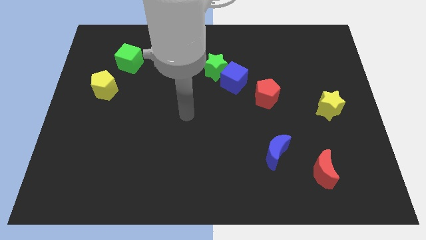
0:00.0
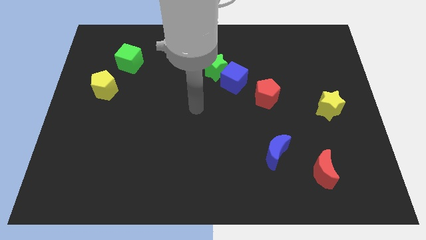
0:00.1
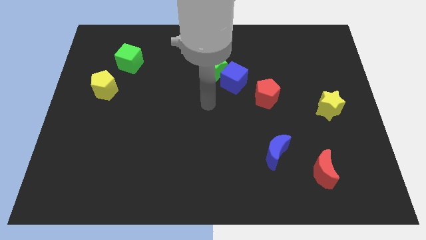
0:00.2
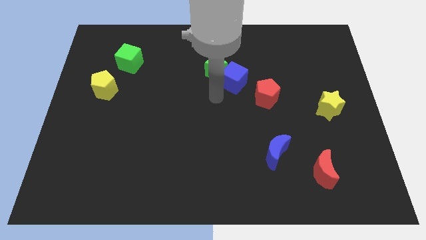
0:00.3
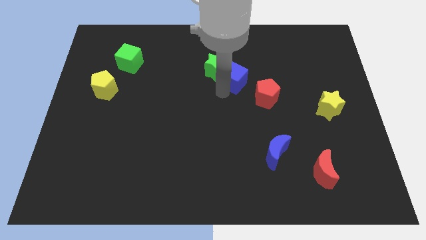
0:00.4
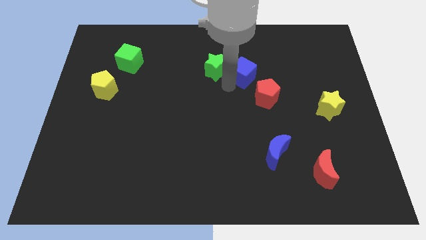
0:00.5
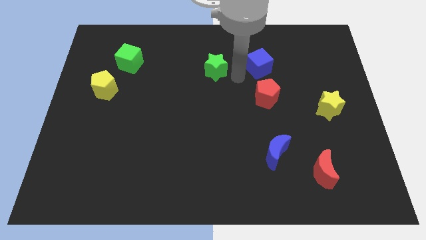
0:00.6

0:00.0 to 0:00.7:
pull the green star apart from the blue cube

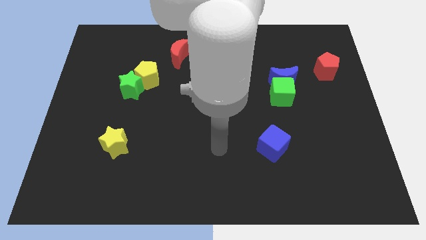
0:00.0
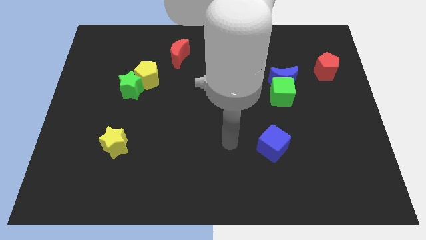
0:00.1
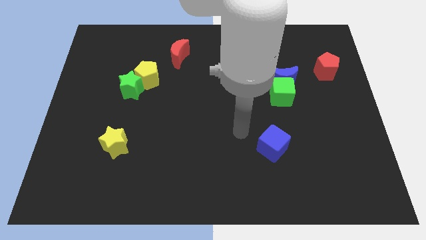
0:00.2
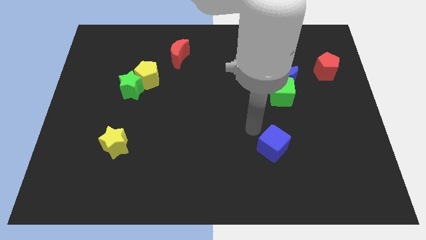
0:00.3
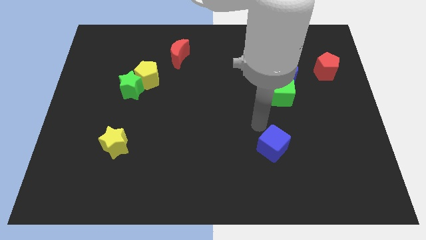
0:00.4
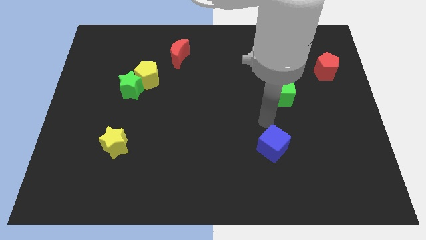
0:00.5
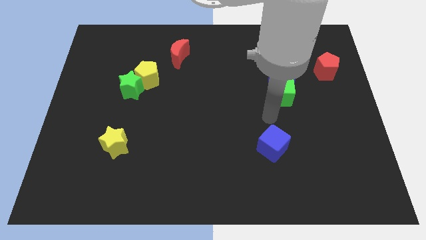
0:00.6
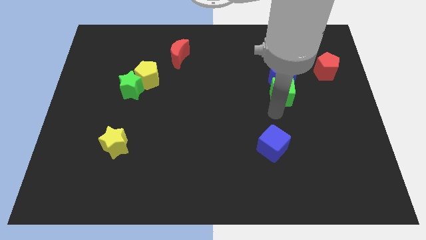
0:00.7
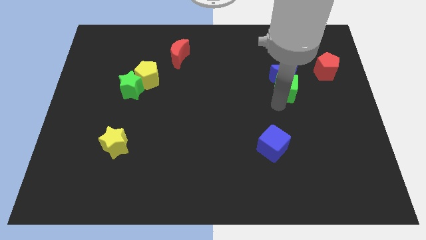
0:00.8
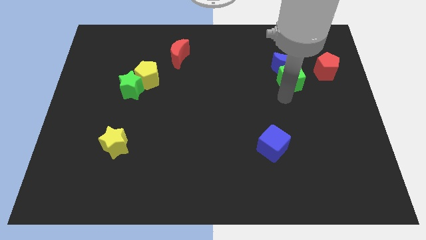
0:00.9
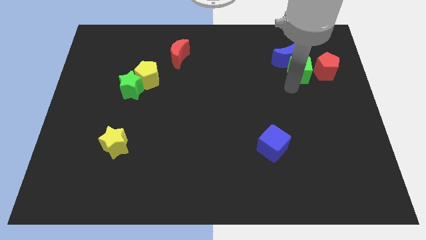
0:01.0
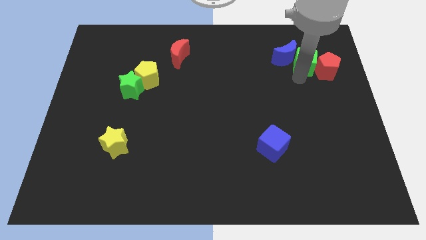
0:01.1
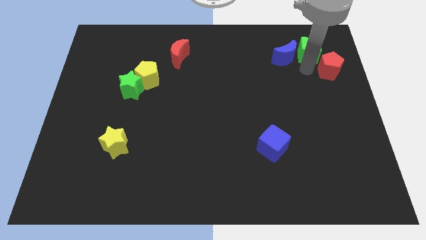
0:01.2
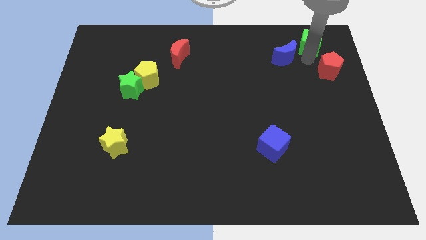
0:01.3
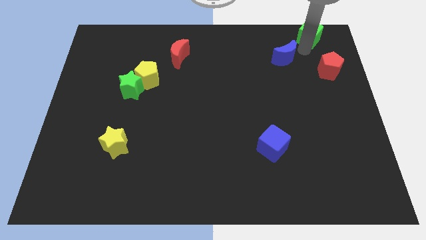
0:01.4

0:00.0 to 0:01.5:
separate the blue moon from the green cube

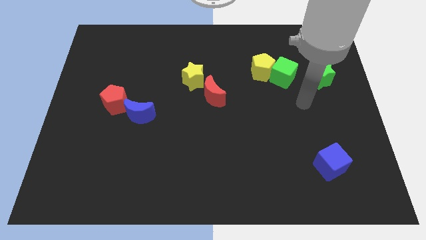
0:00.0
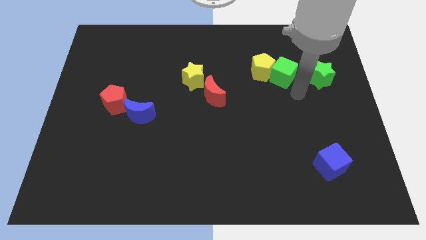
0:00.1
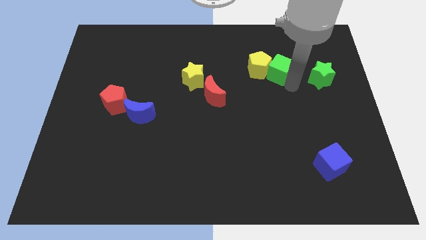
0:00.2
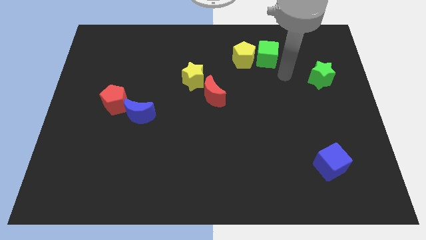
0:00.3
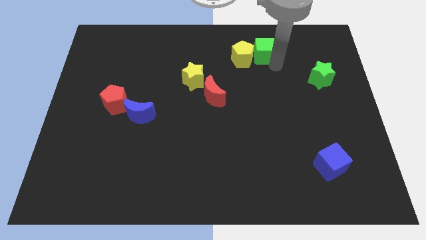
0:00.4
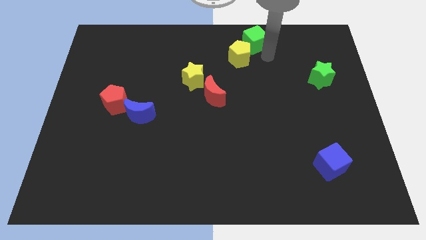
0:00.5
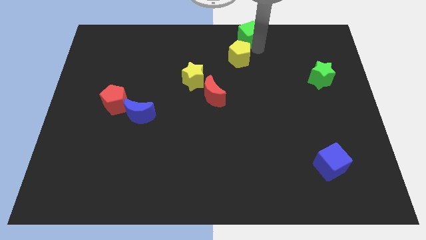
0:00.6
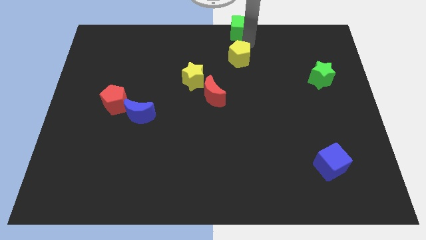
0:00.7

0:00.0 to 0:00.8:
pull the yellow pentagon apart from the green cube

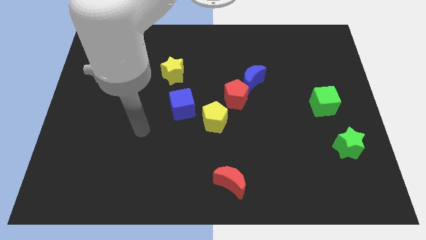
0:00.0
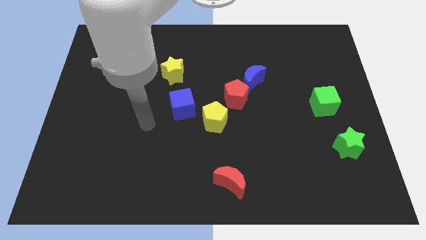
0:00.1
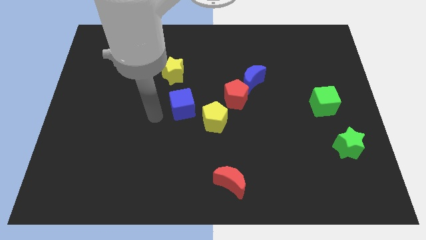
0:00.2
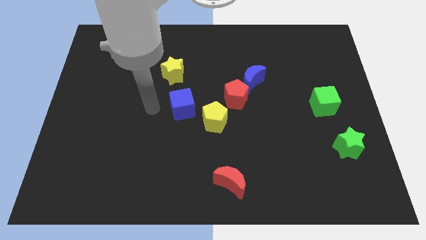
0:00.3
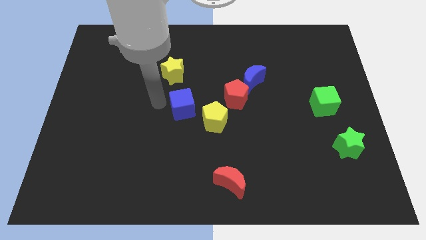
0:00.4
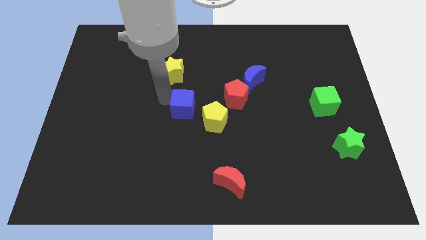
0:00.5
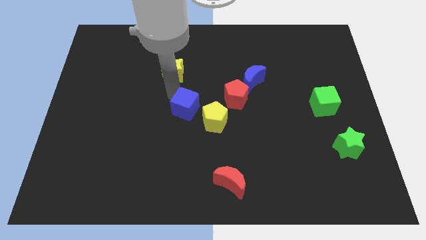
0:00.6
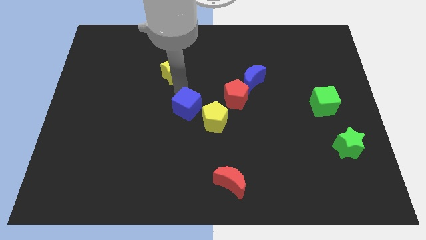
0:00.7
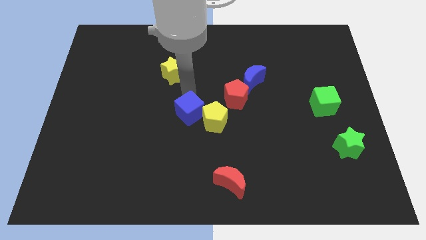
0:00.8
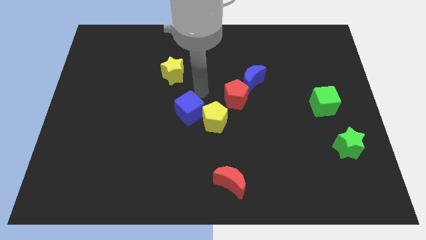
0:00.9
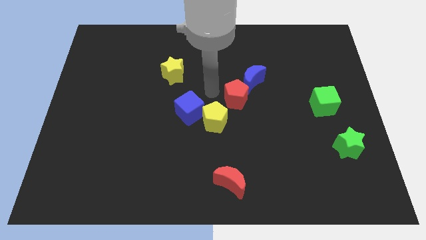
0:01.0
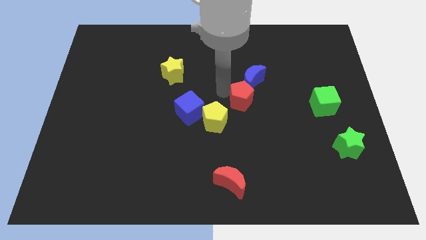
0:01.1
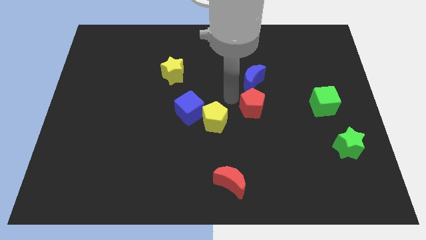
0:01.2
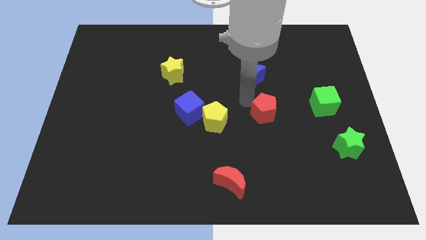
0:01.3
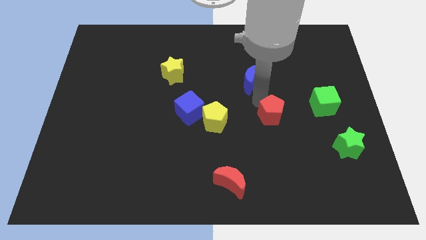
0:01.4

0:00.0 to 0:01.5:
separate the blue moon from the red pentagon

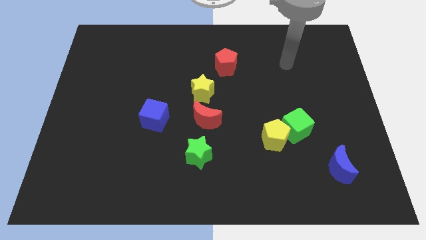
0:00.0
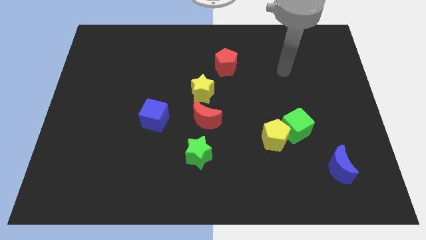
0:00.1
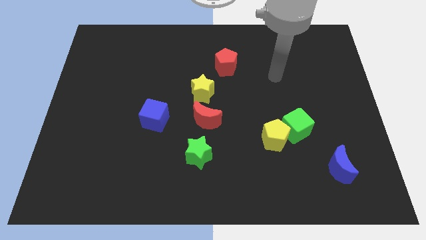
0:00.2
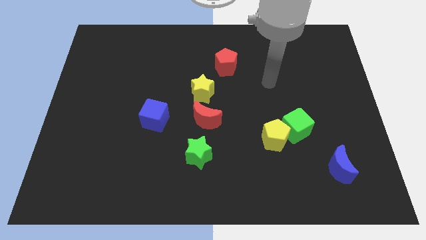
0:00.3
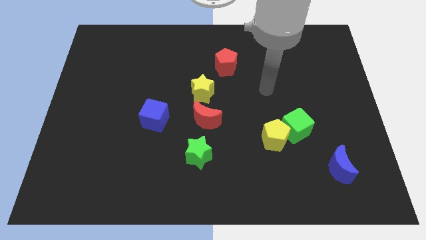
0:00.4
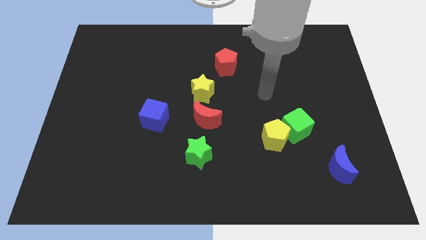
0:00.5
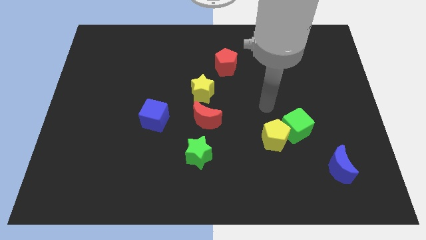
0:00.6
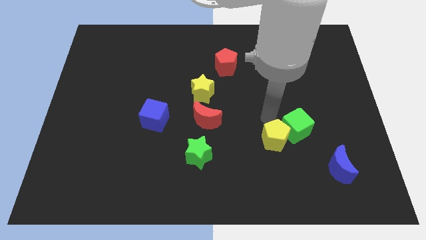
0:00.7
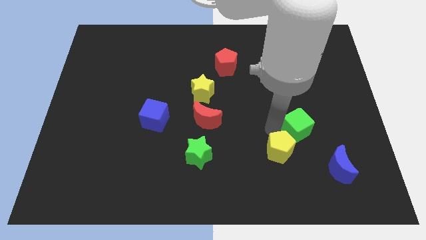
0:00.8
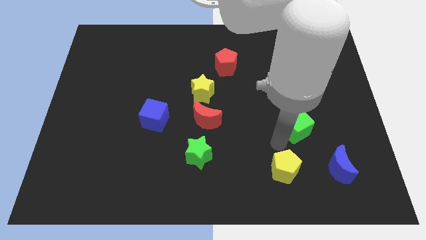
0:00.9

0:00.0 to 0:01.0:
move the green cube away from the yellow pentagon

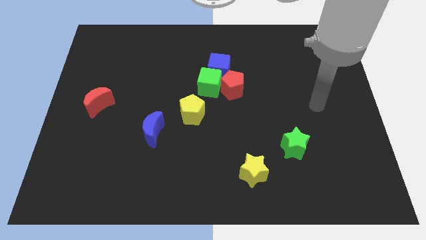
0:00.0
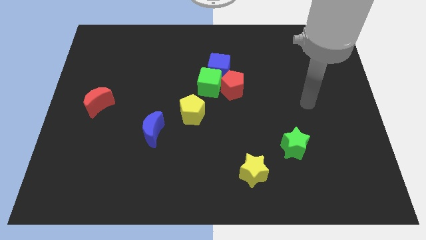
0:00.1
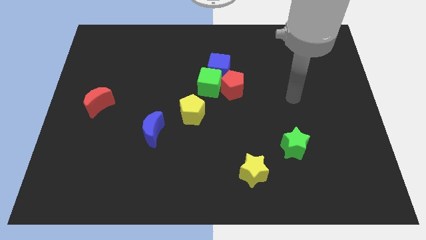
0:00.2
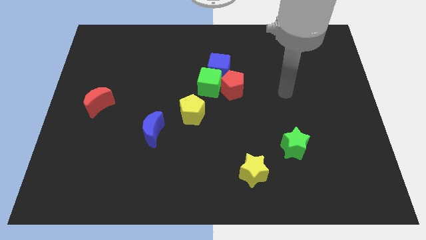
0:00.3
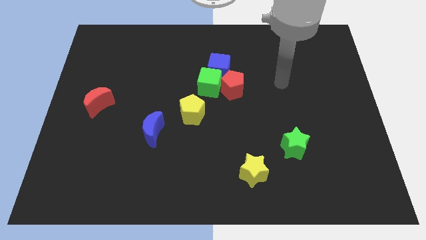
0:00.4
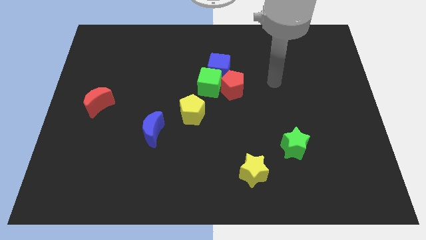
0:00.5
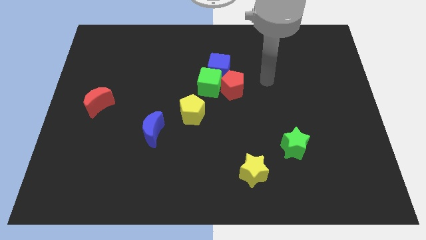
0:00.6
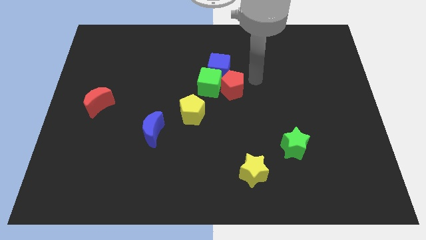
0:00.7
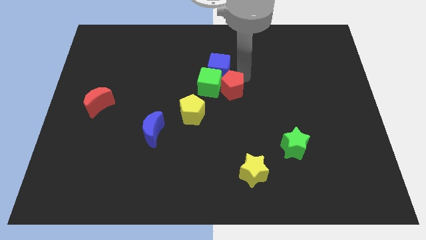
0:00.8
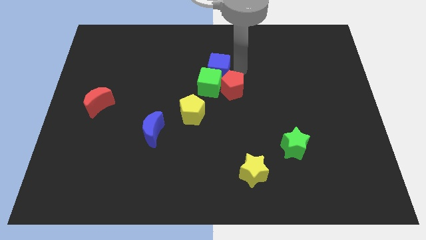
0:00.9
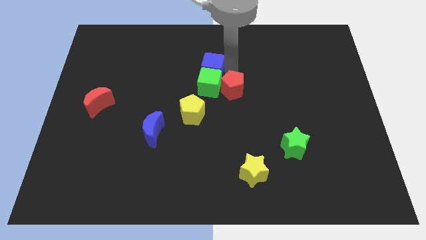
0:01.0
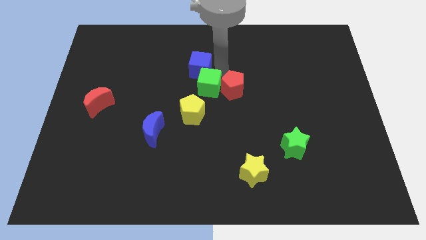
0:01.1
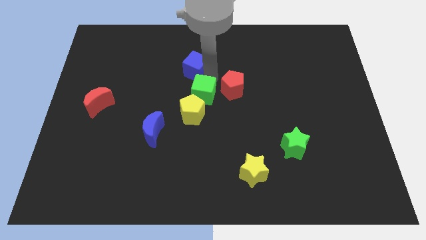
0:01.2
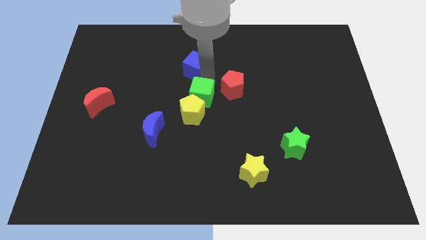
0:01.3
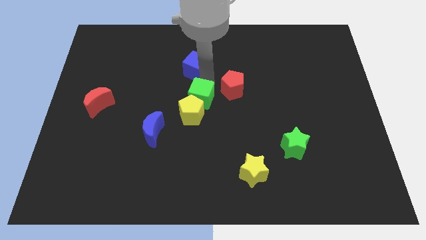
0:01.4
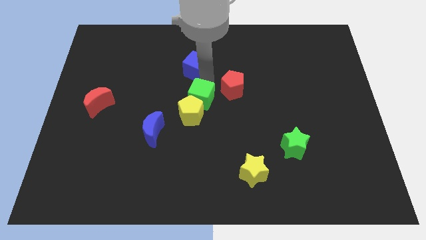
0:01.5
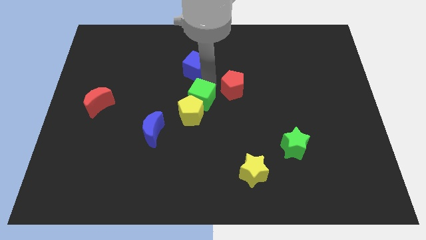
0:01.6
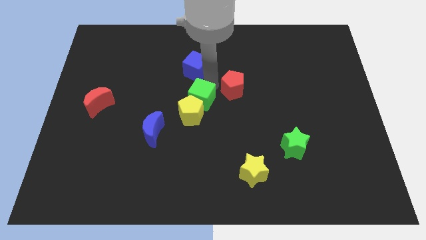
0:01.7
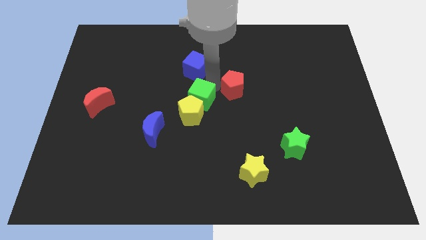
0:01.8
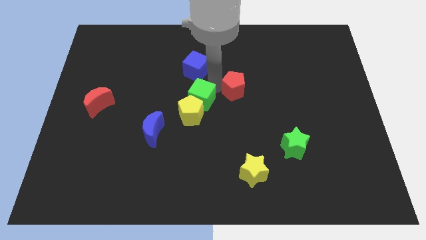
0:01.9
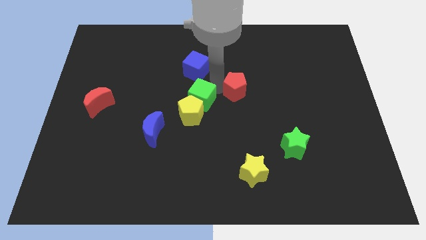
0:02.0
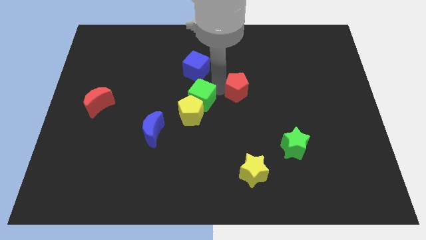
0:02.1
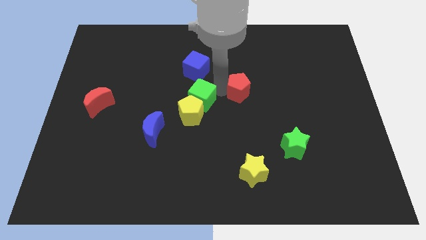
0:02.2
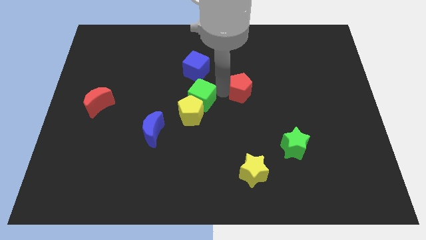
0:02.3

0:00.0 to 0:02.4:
separate the red pentagon from the green cube and blue cube

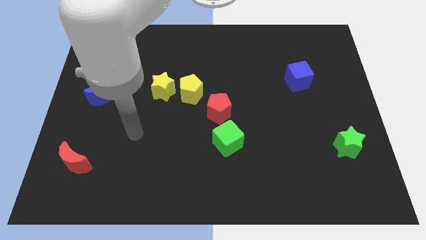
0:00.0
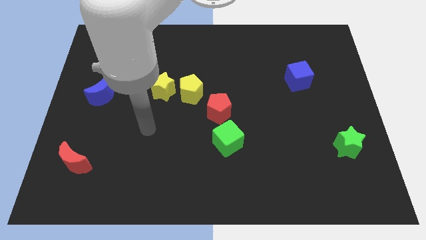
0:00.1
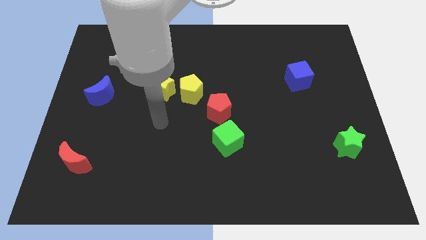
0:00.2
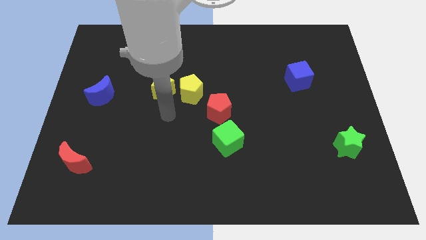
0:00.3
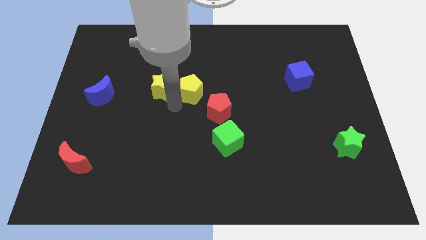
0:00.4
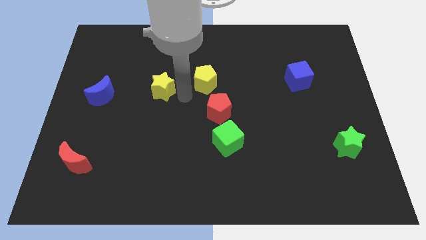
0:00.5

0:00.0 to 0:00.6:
separate the yellow star from the yellow pentagon

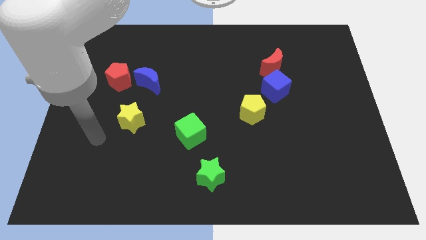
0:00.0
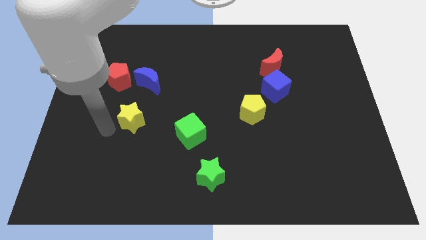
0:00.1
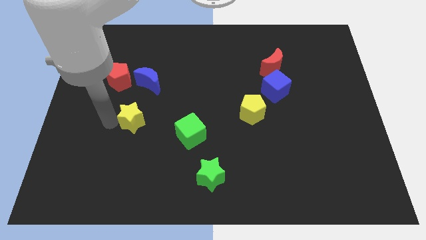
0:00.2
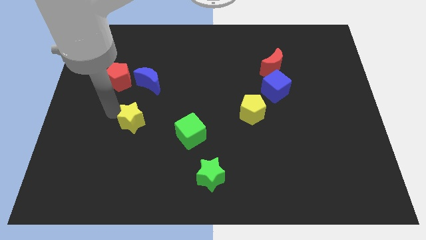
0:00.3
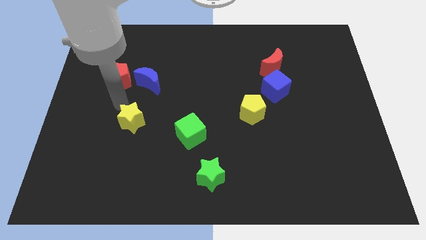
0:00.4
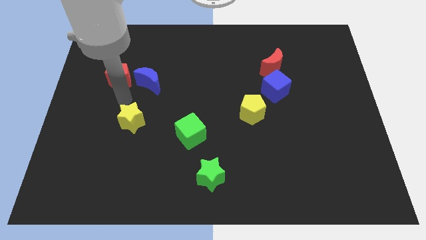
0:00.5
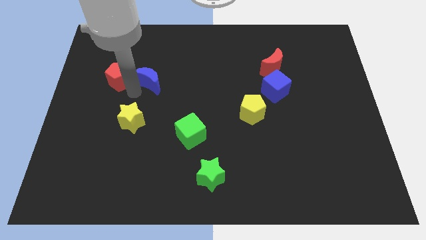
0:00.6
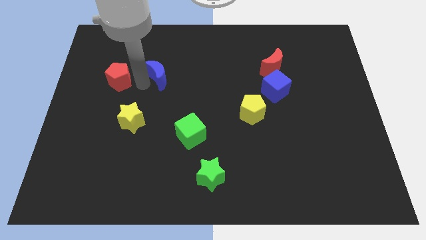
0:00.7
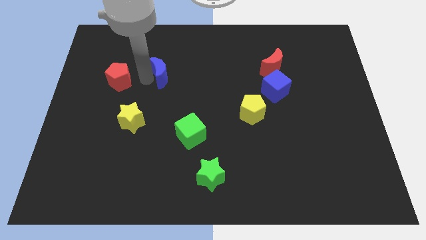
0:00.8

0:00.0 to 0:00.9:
move the red pentagon away from the blue moon
